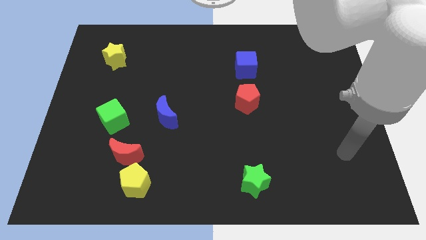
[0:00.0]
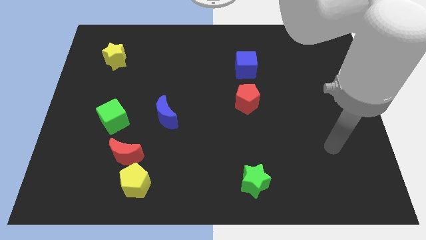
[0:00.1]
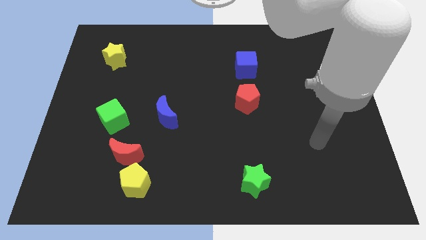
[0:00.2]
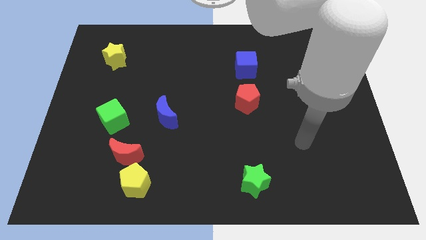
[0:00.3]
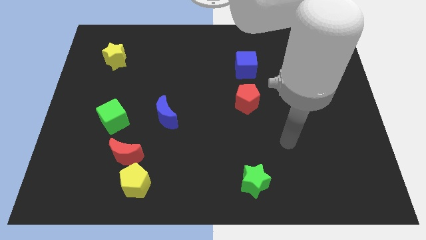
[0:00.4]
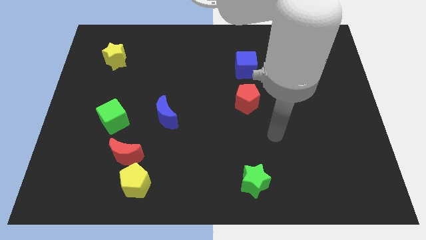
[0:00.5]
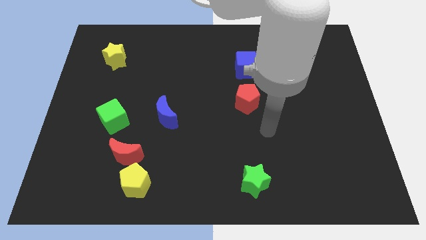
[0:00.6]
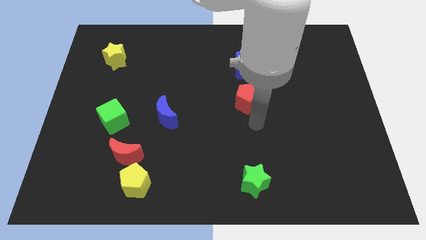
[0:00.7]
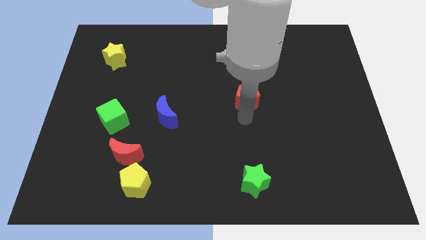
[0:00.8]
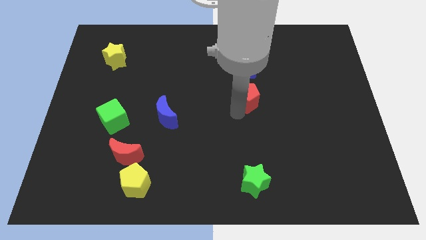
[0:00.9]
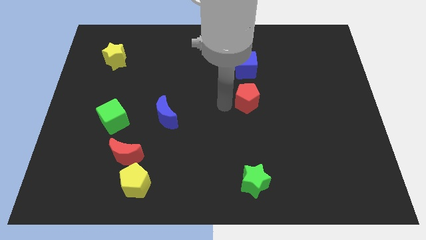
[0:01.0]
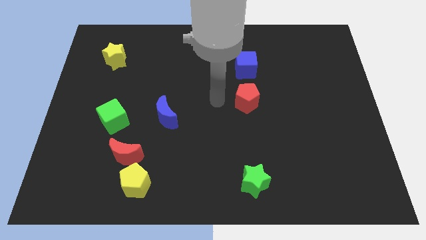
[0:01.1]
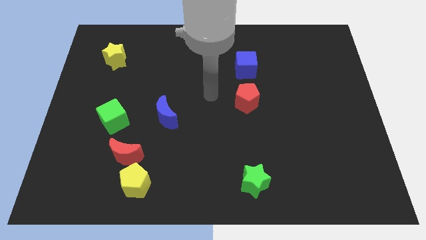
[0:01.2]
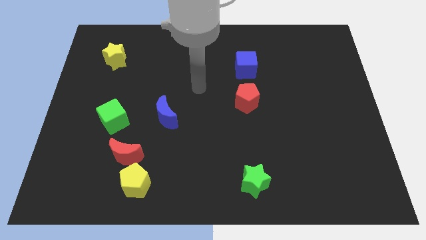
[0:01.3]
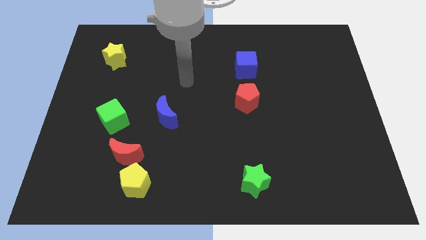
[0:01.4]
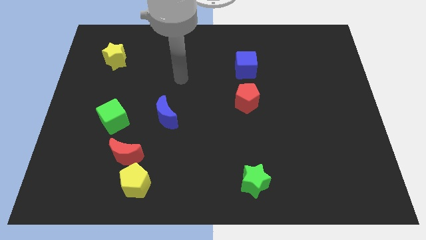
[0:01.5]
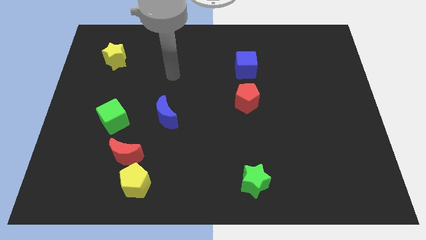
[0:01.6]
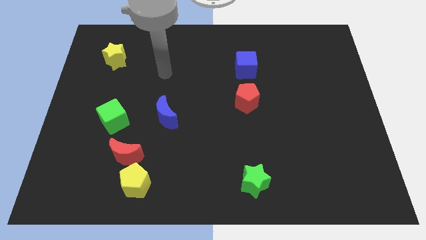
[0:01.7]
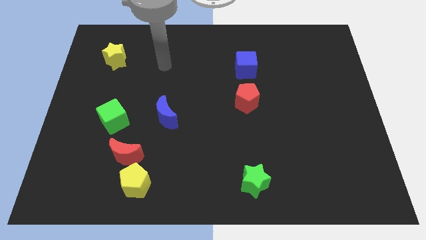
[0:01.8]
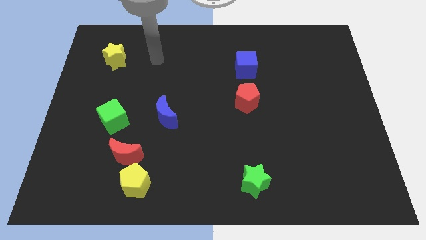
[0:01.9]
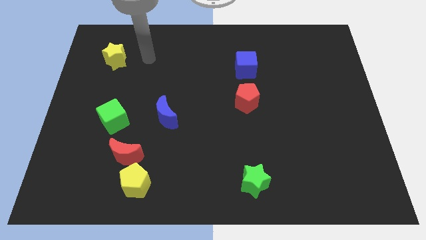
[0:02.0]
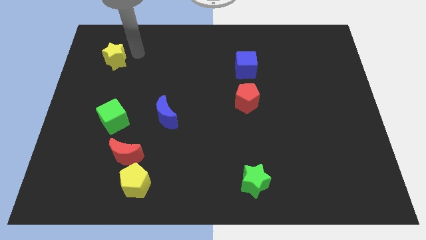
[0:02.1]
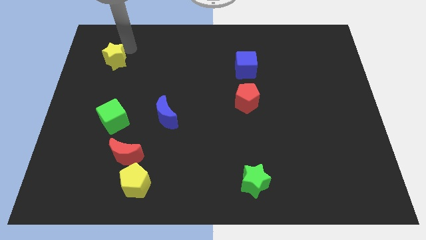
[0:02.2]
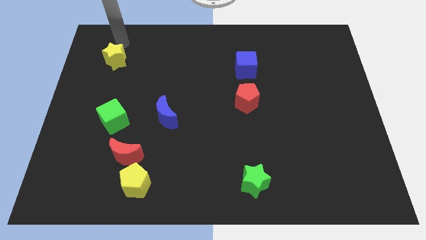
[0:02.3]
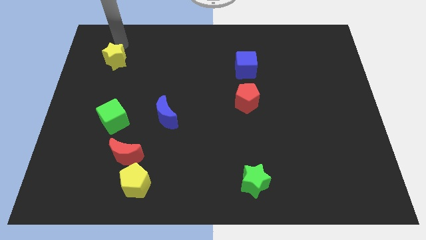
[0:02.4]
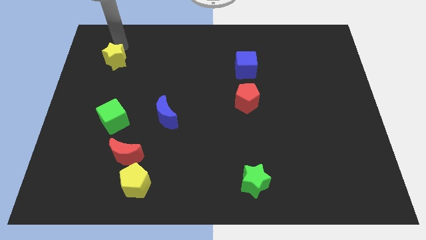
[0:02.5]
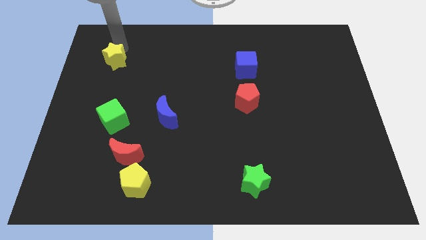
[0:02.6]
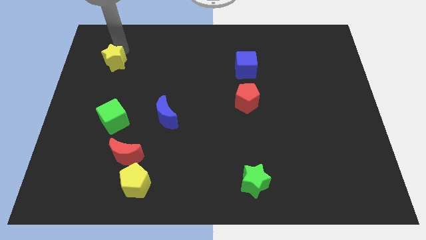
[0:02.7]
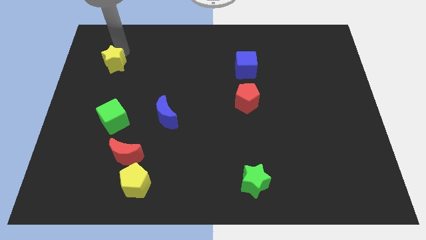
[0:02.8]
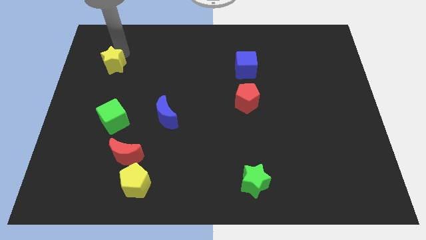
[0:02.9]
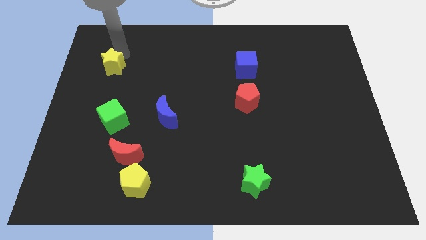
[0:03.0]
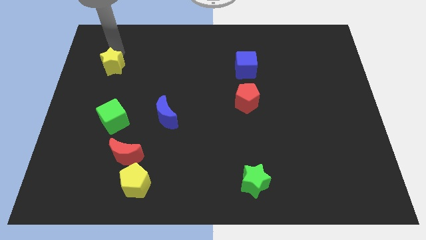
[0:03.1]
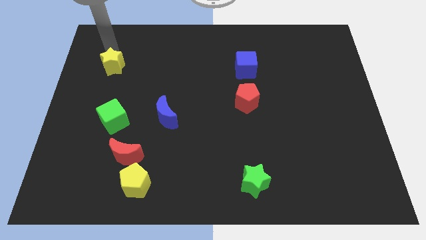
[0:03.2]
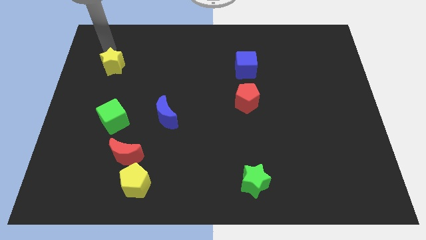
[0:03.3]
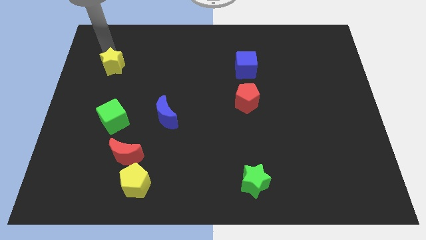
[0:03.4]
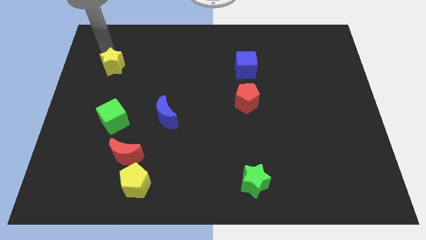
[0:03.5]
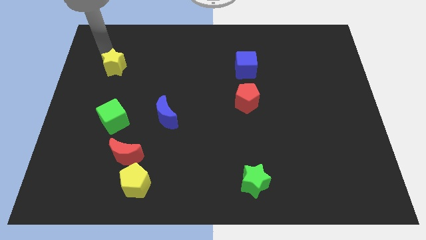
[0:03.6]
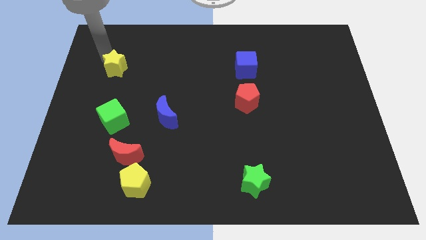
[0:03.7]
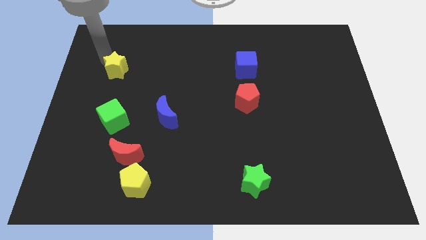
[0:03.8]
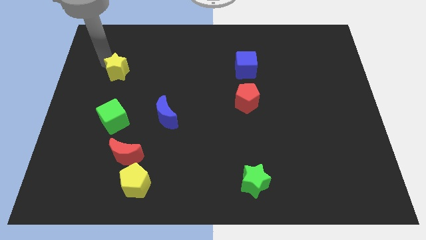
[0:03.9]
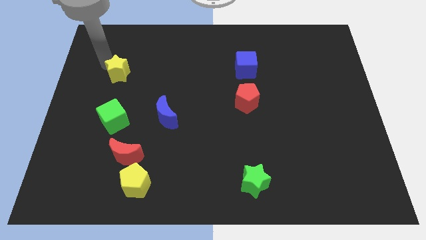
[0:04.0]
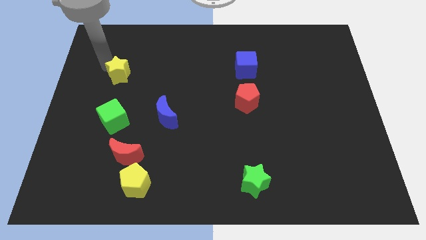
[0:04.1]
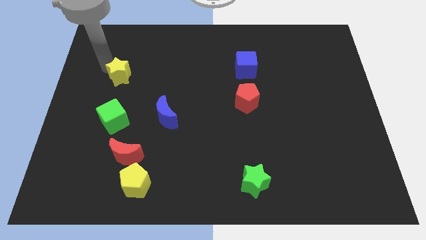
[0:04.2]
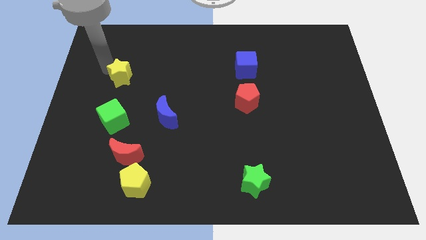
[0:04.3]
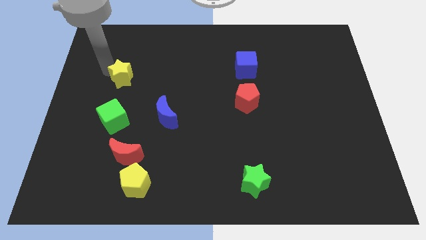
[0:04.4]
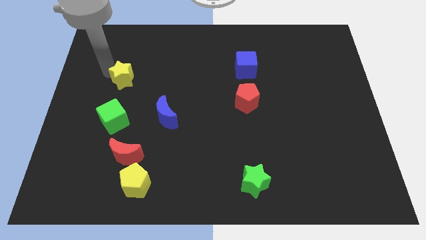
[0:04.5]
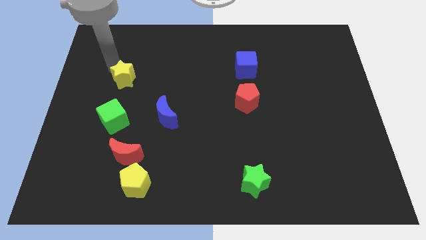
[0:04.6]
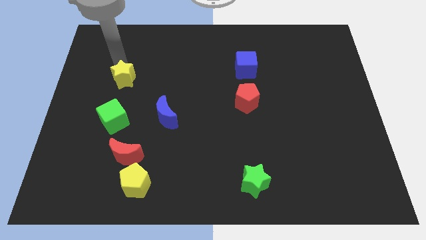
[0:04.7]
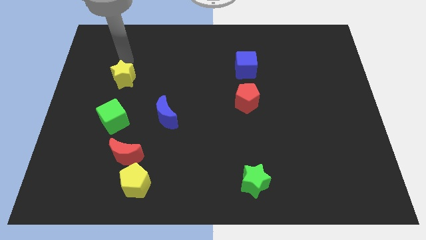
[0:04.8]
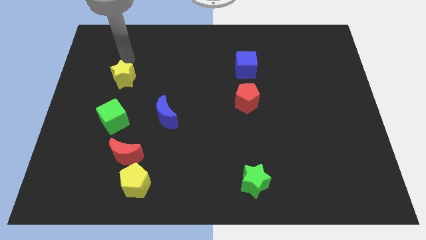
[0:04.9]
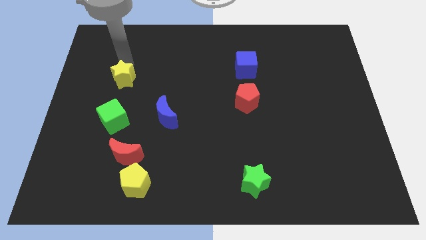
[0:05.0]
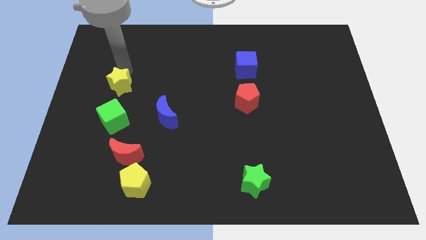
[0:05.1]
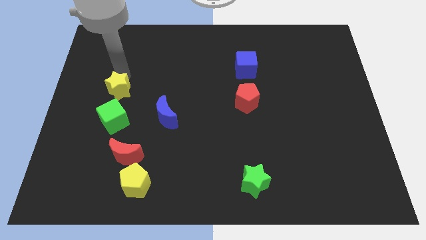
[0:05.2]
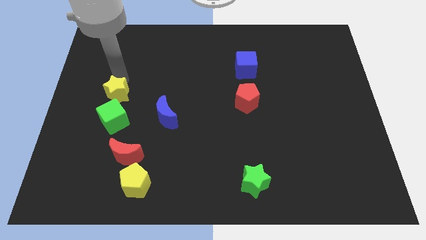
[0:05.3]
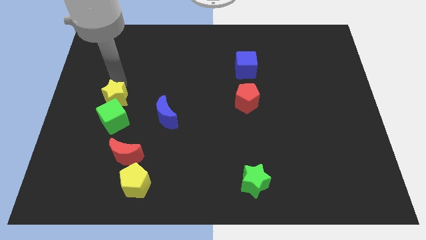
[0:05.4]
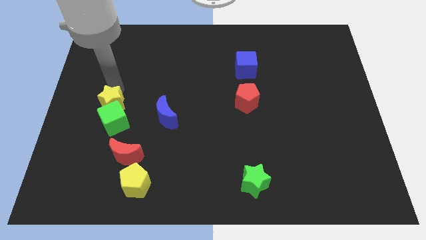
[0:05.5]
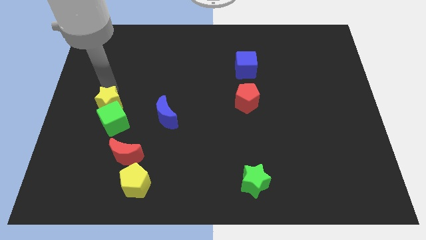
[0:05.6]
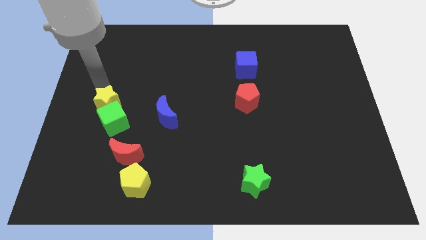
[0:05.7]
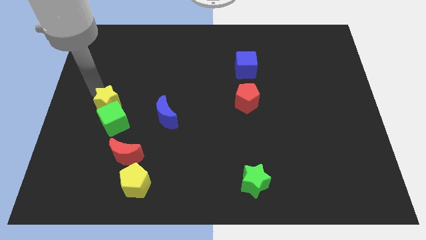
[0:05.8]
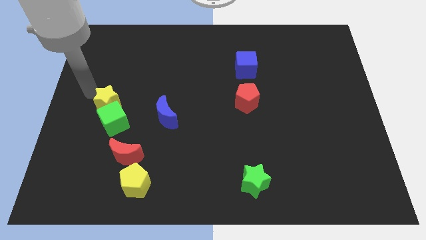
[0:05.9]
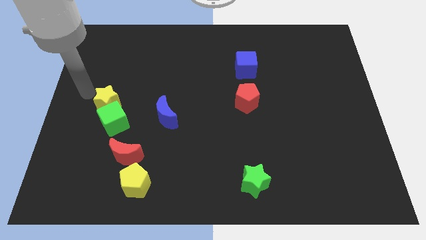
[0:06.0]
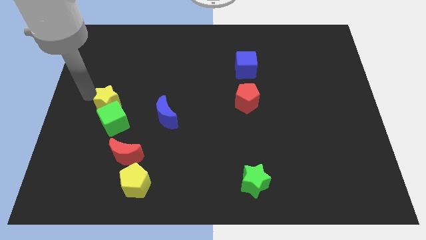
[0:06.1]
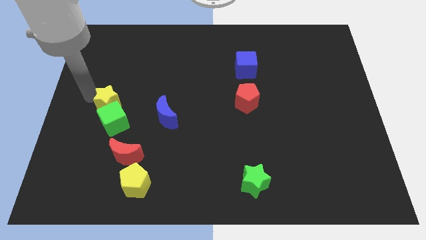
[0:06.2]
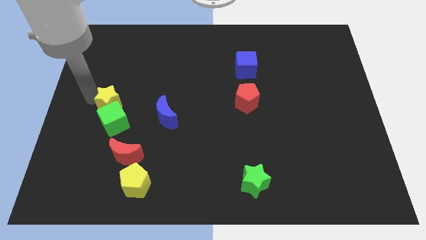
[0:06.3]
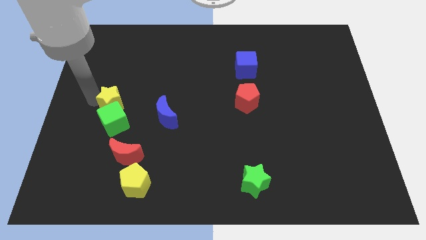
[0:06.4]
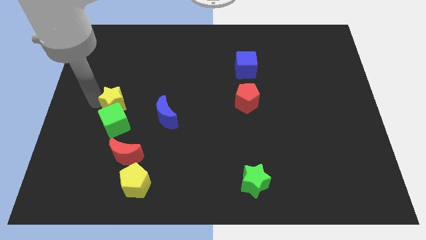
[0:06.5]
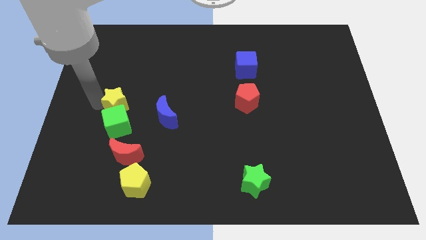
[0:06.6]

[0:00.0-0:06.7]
move the yellow star to the top of the red moon
